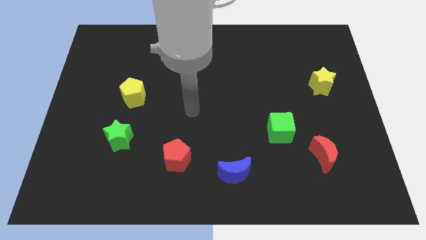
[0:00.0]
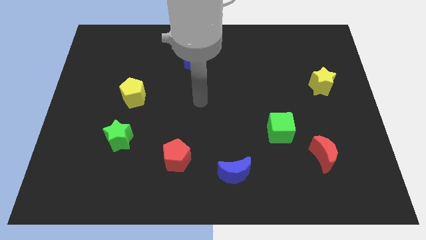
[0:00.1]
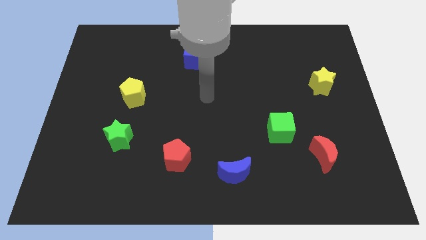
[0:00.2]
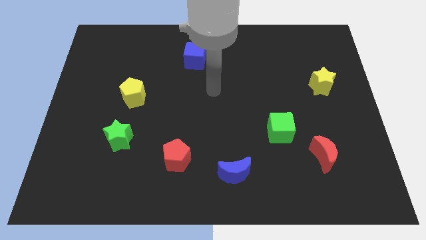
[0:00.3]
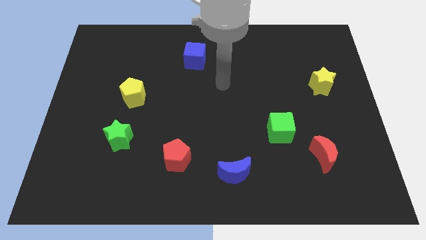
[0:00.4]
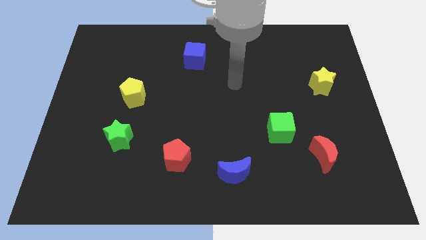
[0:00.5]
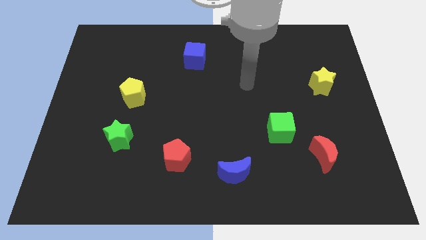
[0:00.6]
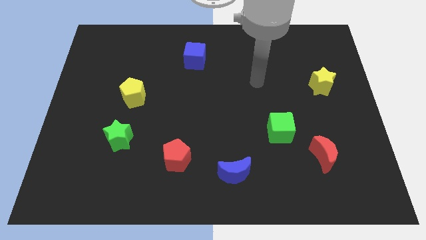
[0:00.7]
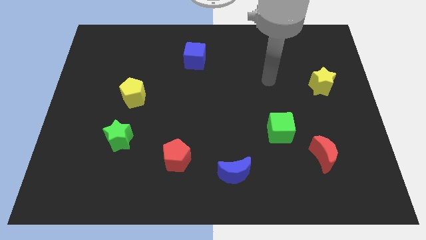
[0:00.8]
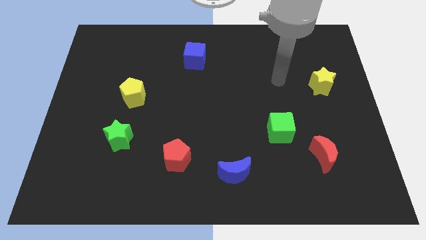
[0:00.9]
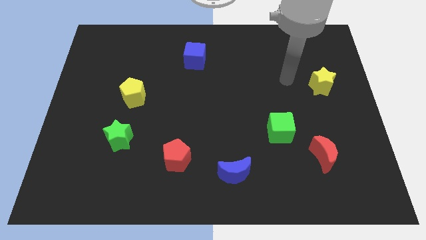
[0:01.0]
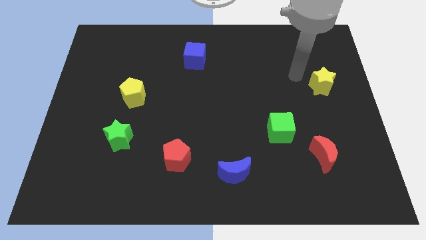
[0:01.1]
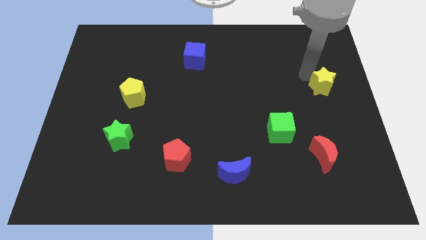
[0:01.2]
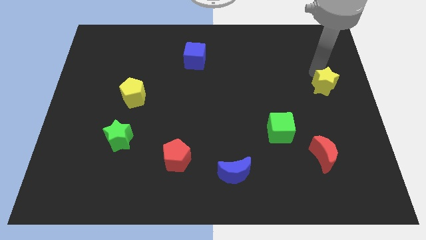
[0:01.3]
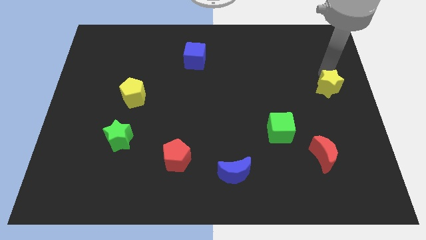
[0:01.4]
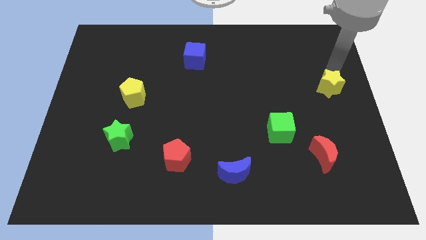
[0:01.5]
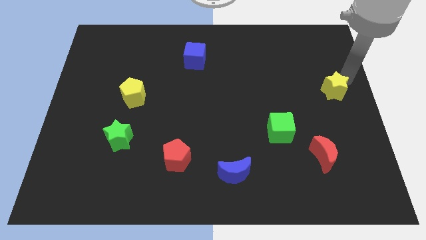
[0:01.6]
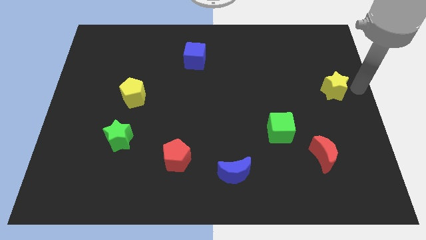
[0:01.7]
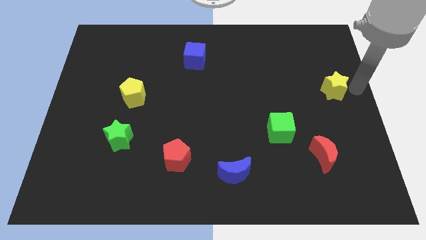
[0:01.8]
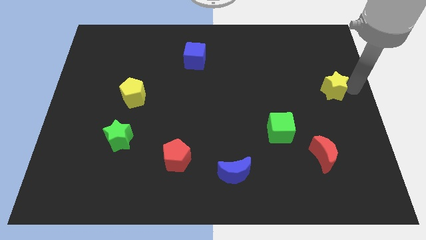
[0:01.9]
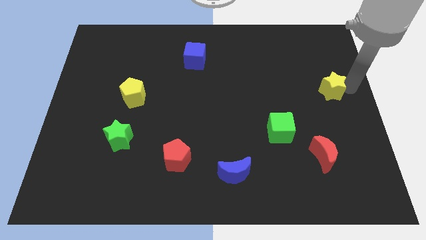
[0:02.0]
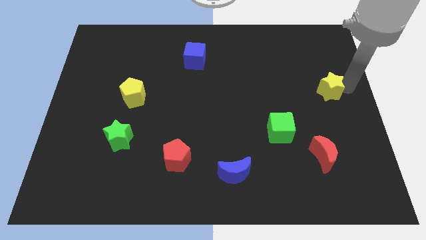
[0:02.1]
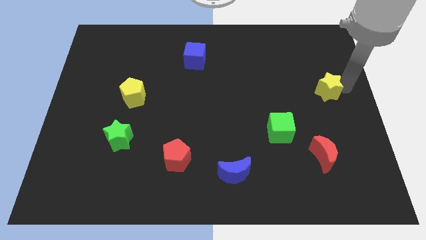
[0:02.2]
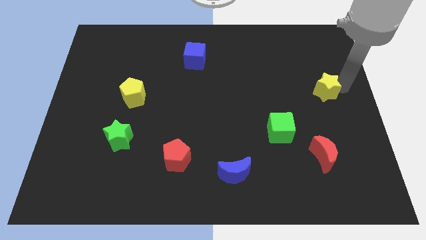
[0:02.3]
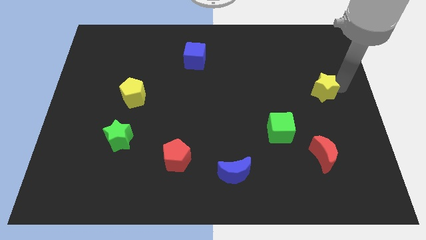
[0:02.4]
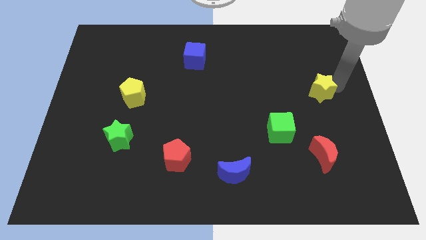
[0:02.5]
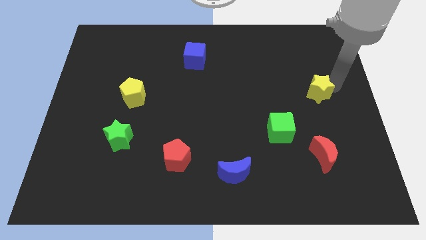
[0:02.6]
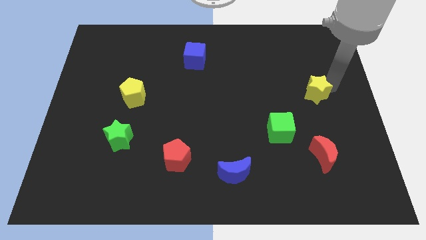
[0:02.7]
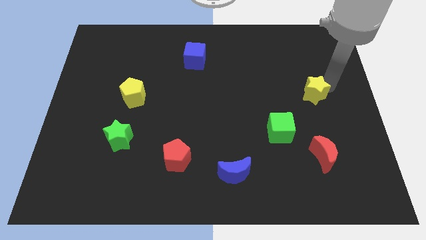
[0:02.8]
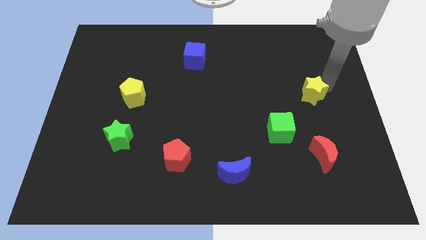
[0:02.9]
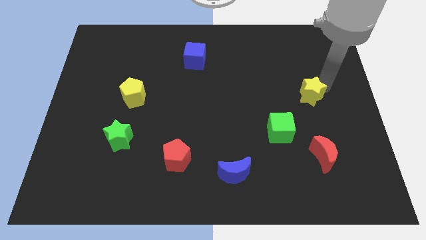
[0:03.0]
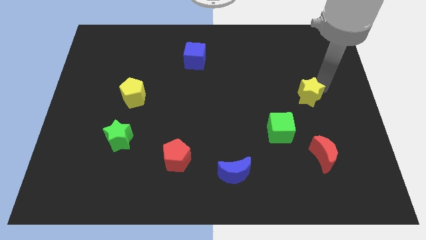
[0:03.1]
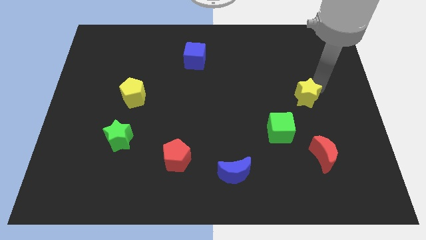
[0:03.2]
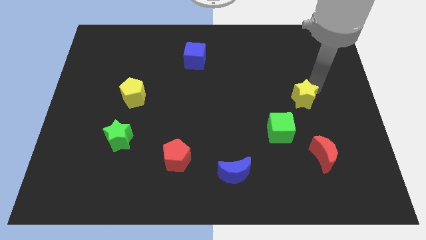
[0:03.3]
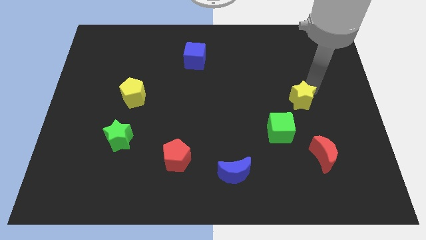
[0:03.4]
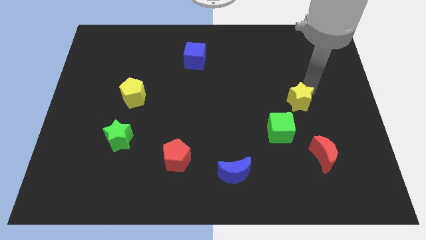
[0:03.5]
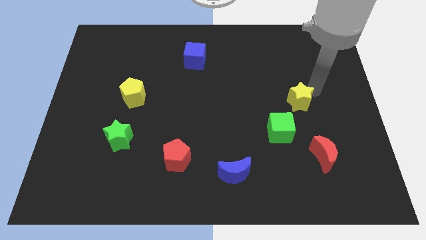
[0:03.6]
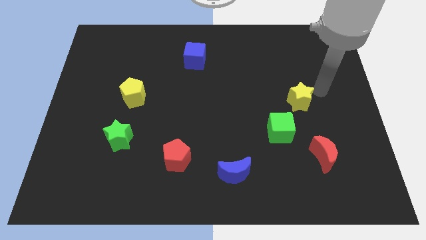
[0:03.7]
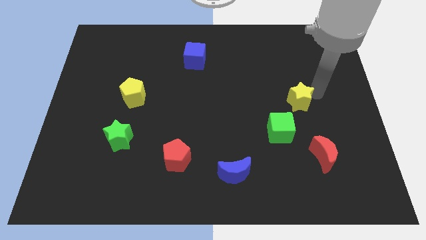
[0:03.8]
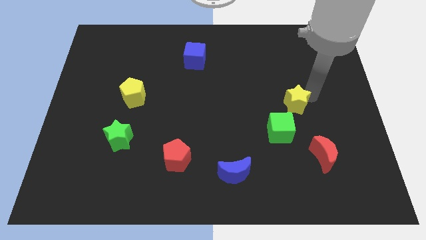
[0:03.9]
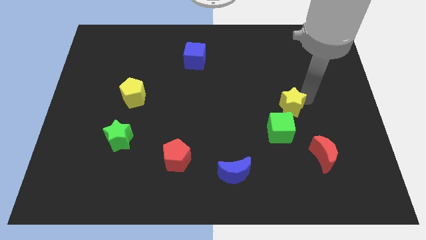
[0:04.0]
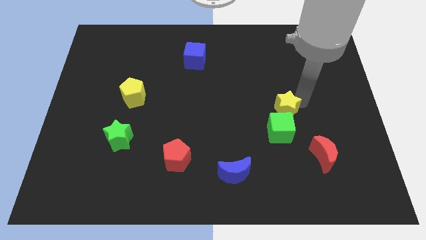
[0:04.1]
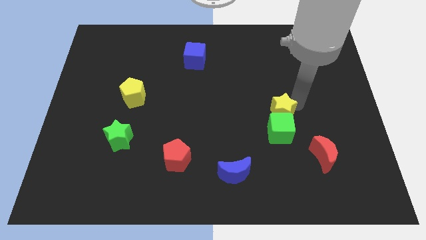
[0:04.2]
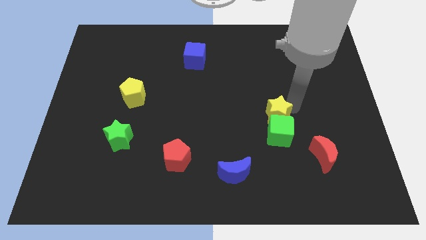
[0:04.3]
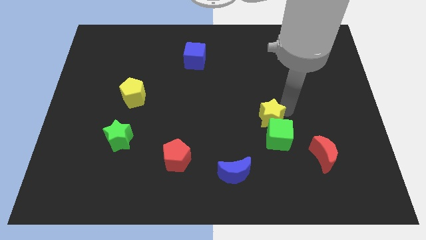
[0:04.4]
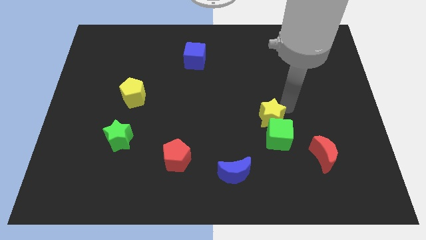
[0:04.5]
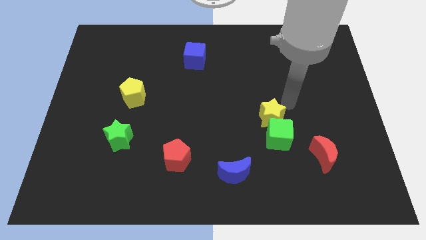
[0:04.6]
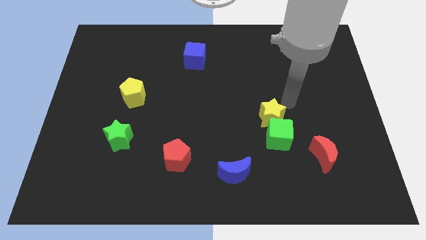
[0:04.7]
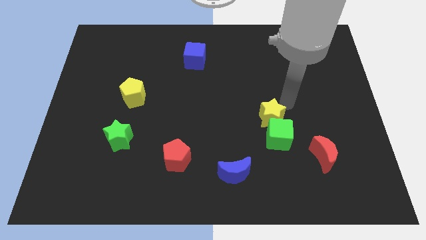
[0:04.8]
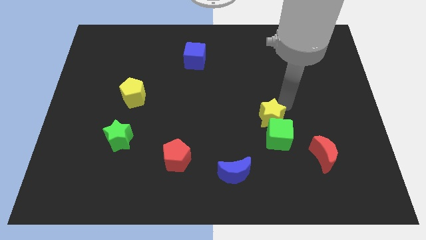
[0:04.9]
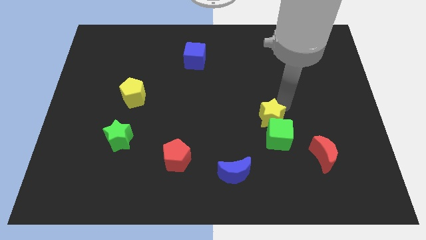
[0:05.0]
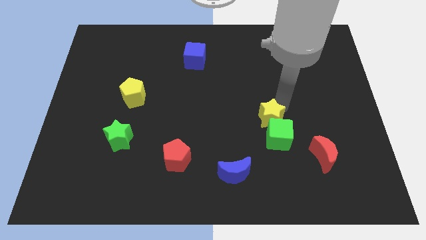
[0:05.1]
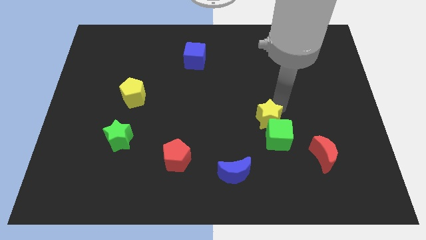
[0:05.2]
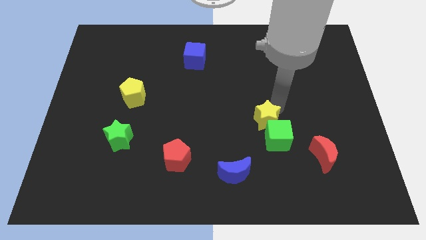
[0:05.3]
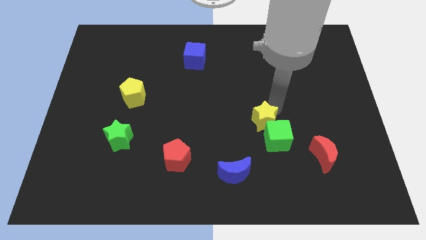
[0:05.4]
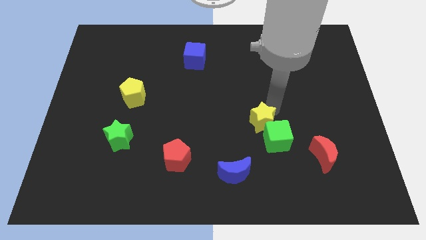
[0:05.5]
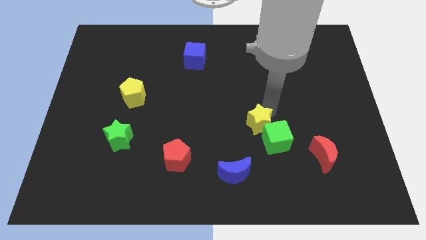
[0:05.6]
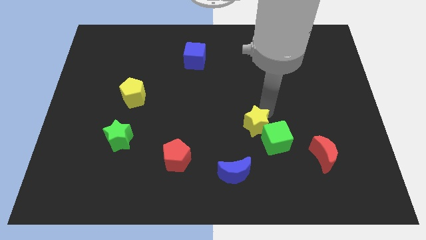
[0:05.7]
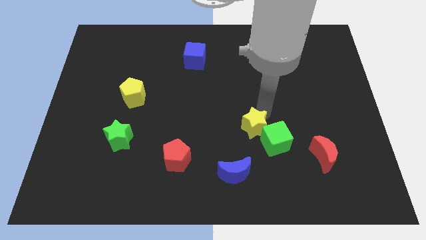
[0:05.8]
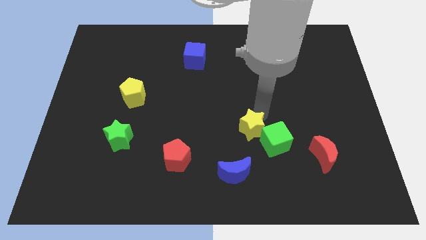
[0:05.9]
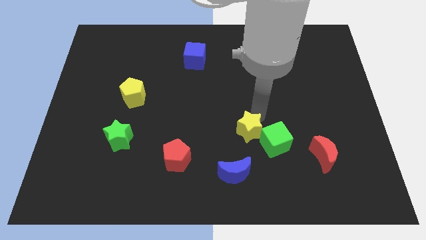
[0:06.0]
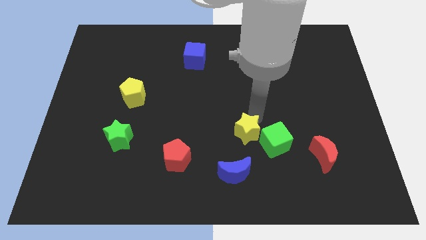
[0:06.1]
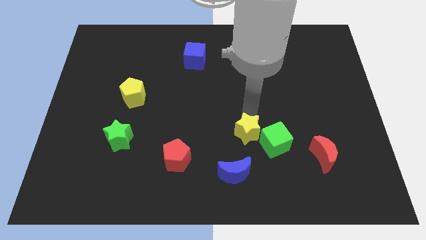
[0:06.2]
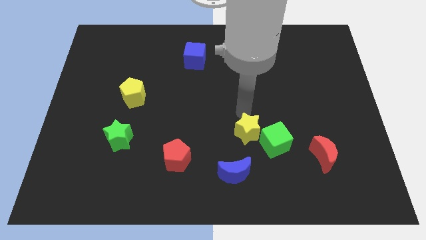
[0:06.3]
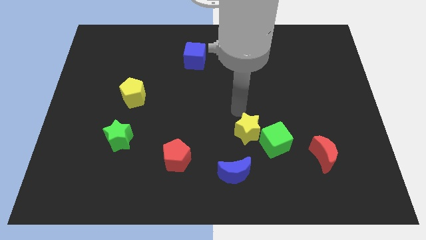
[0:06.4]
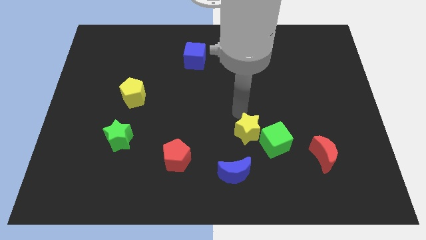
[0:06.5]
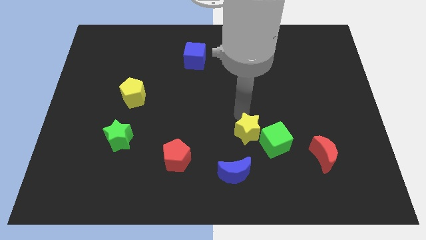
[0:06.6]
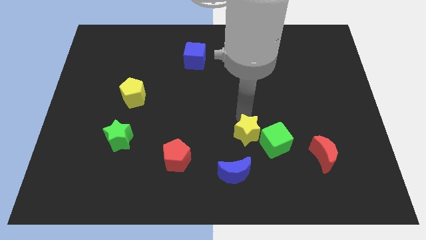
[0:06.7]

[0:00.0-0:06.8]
slide the yellow star to the top right side of the blue moon
